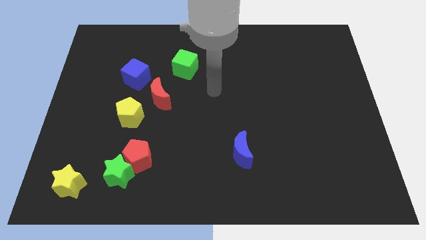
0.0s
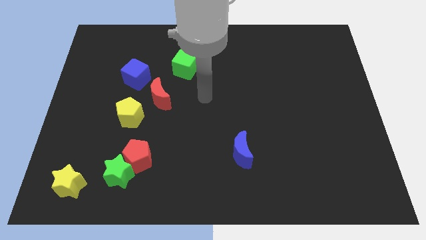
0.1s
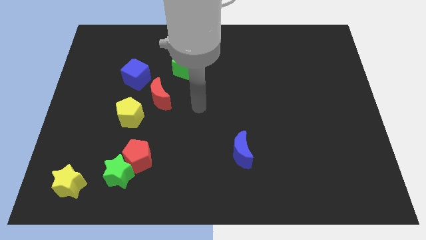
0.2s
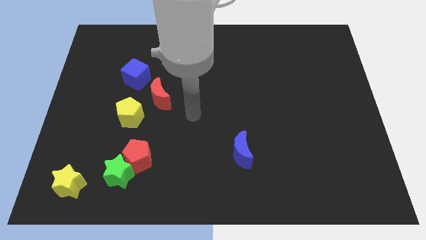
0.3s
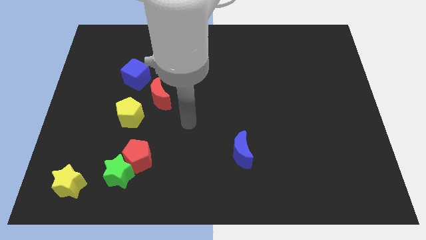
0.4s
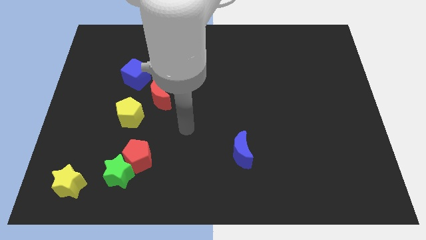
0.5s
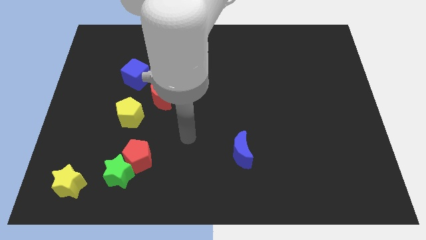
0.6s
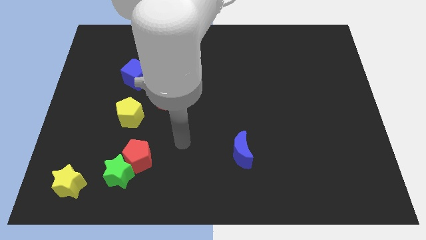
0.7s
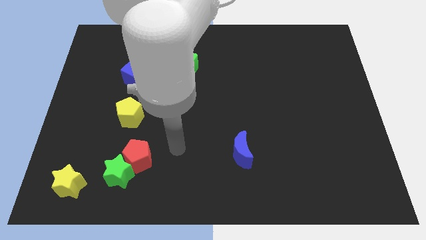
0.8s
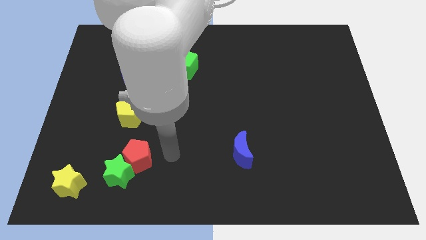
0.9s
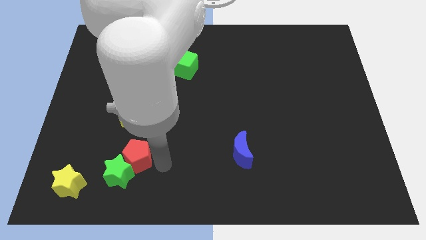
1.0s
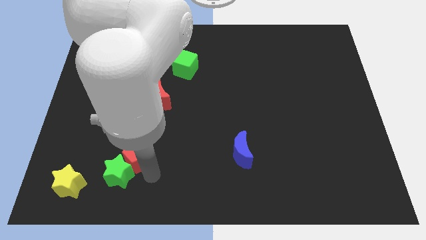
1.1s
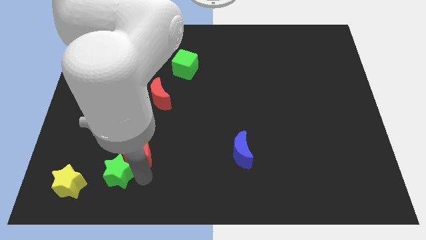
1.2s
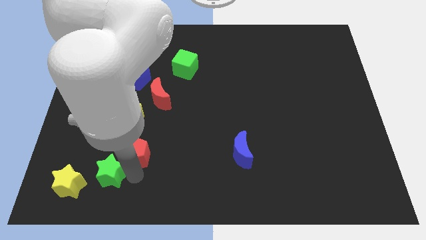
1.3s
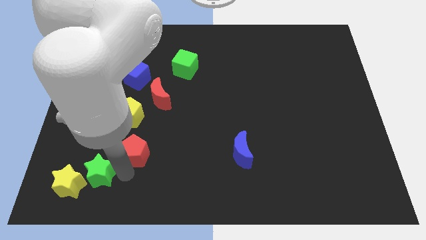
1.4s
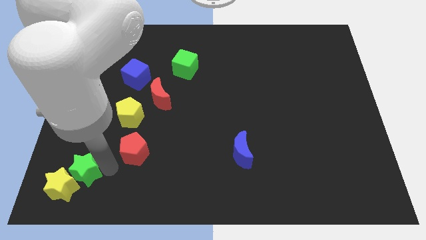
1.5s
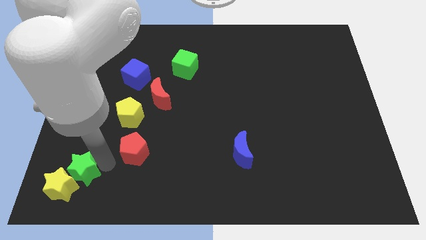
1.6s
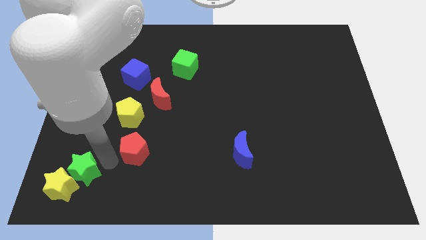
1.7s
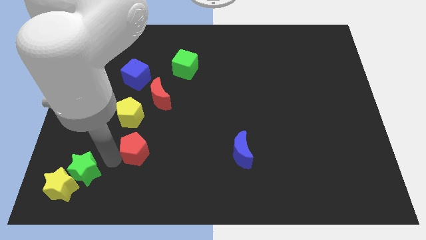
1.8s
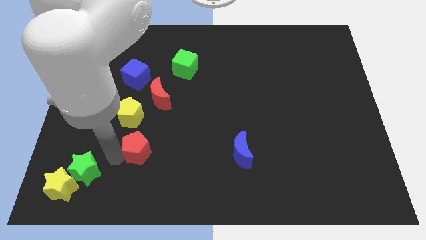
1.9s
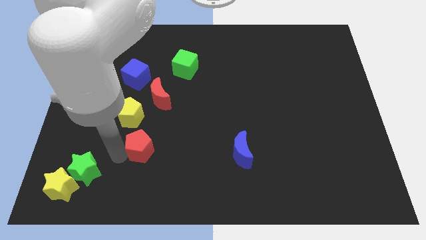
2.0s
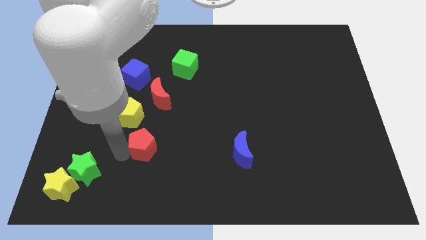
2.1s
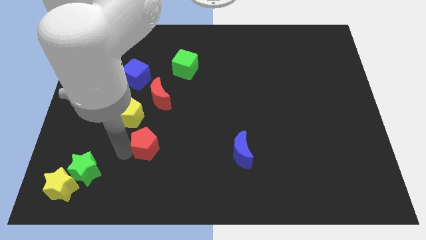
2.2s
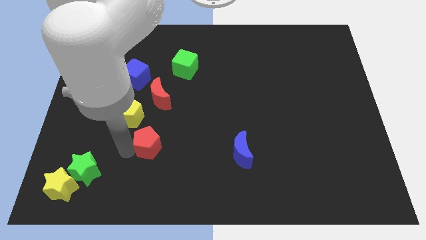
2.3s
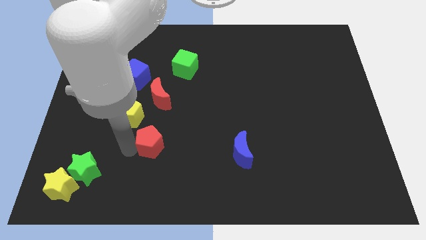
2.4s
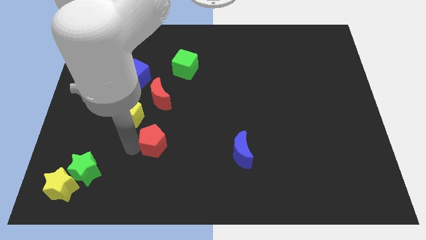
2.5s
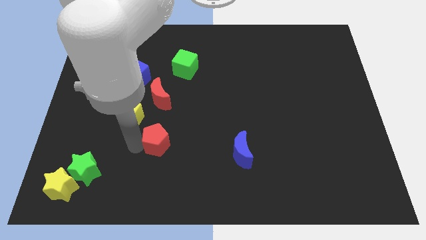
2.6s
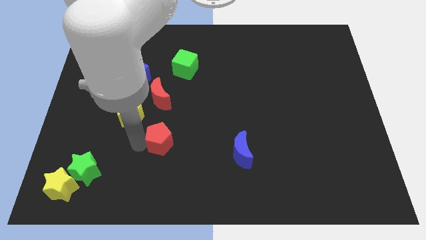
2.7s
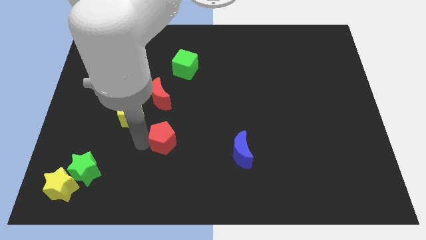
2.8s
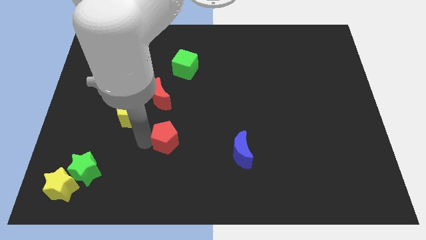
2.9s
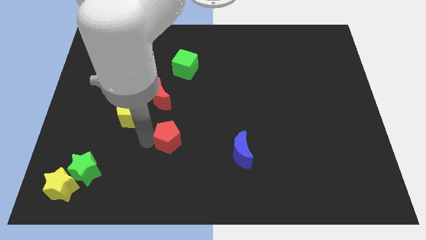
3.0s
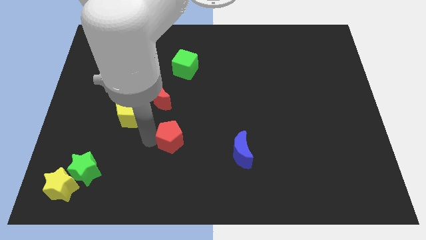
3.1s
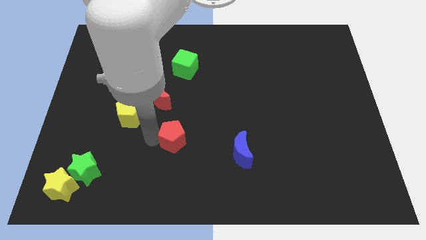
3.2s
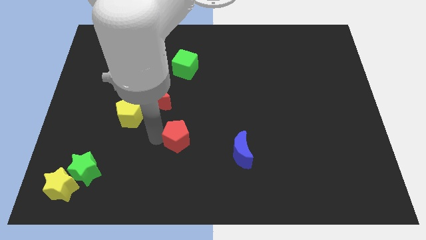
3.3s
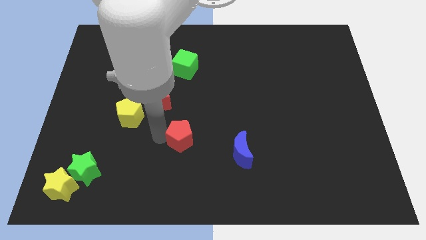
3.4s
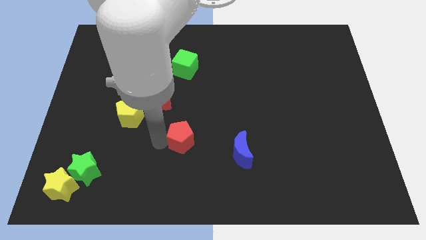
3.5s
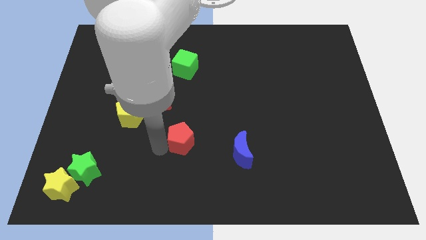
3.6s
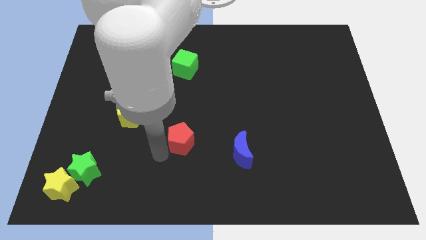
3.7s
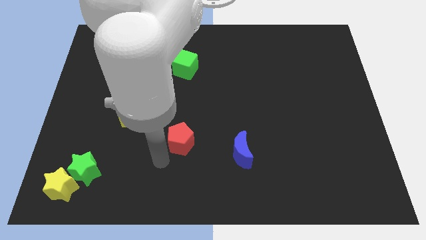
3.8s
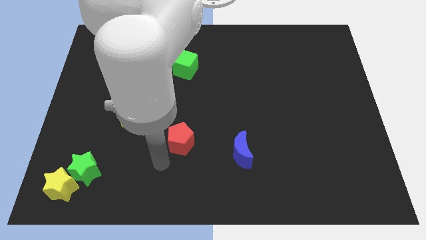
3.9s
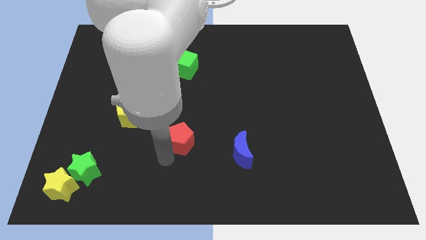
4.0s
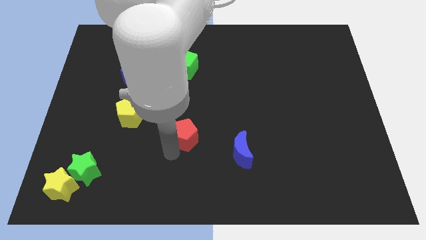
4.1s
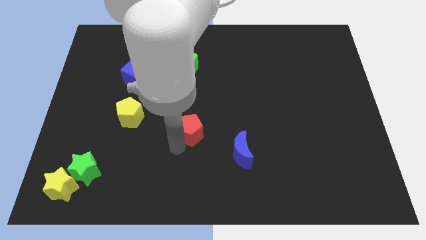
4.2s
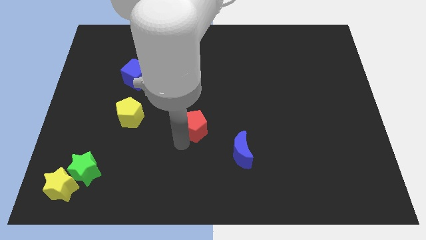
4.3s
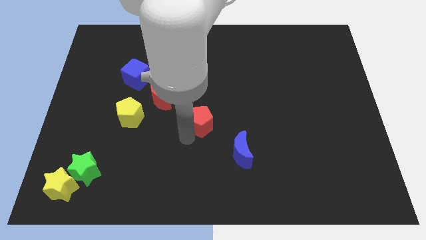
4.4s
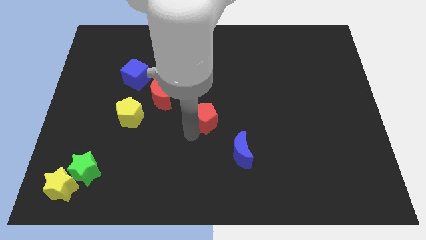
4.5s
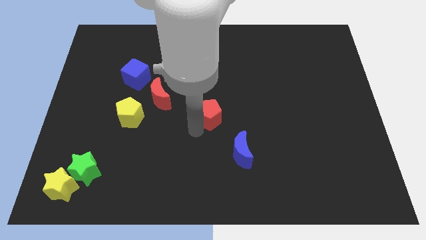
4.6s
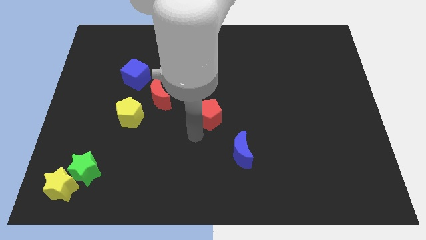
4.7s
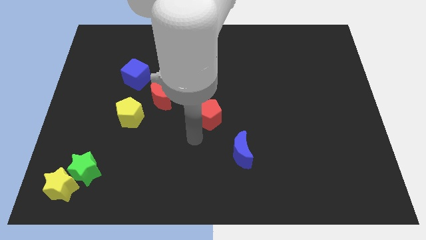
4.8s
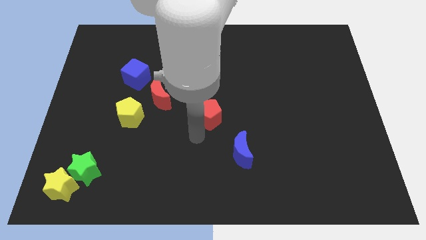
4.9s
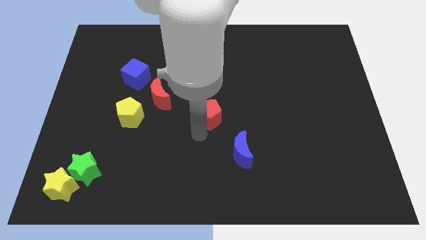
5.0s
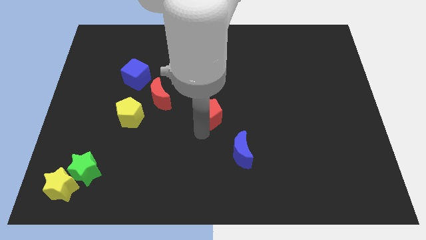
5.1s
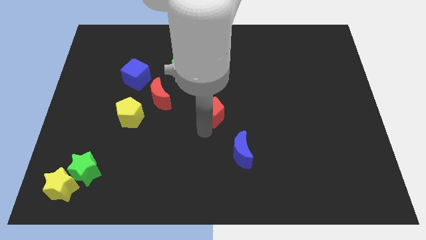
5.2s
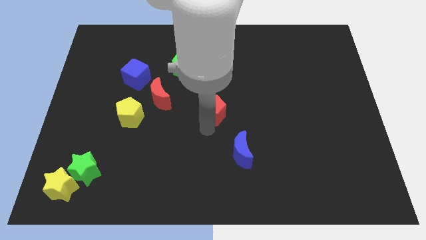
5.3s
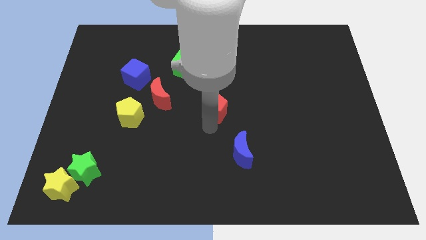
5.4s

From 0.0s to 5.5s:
push the red pentagon diagonally up and right

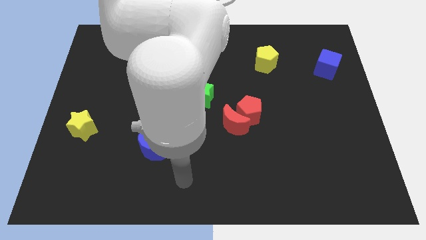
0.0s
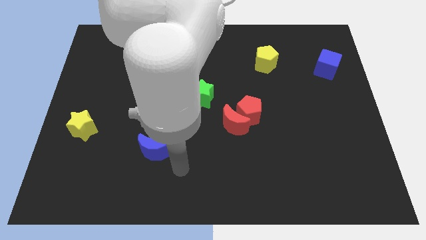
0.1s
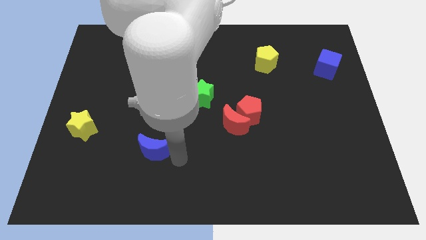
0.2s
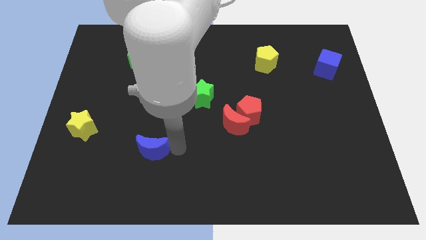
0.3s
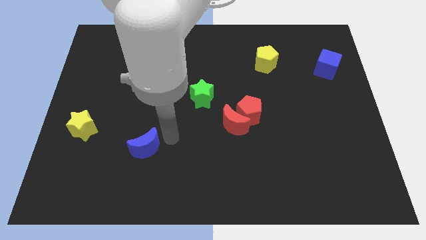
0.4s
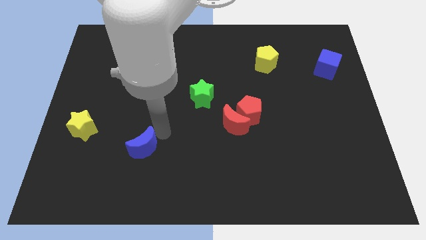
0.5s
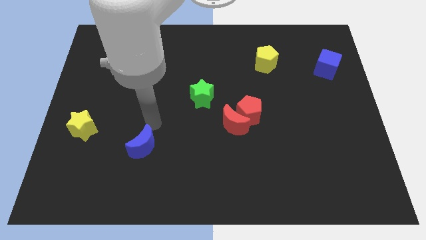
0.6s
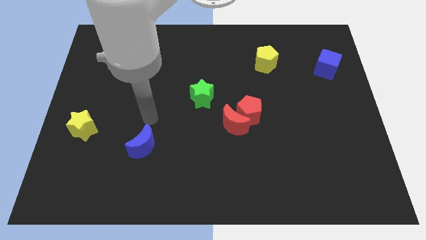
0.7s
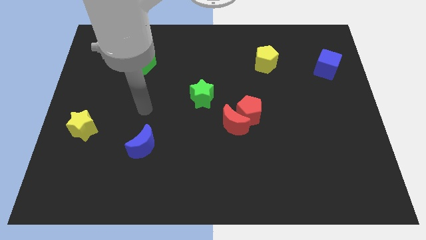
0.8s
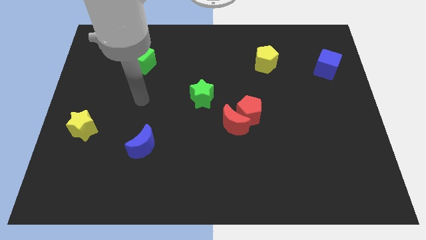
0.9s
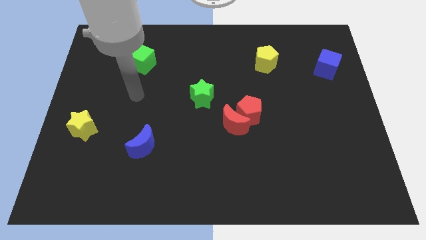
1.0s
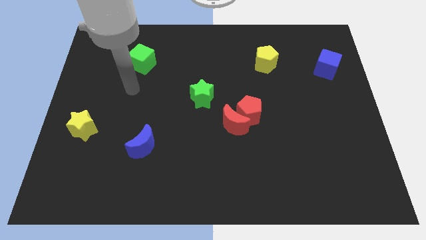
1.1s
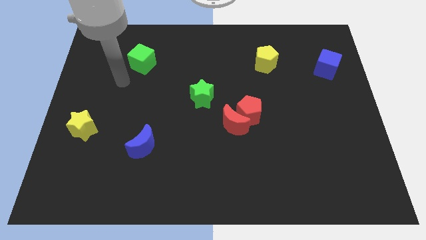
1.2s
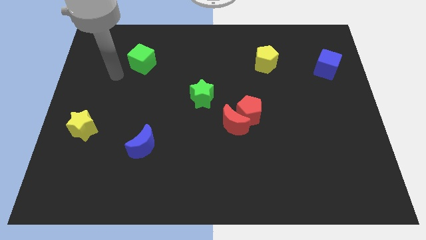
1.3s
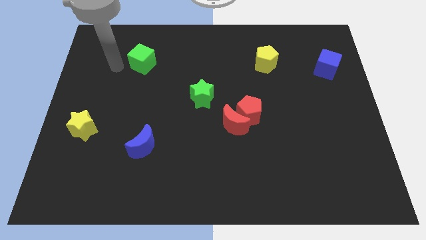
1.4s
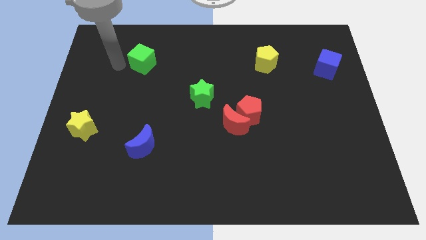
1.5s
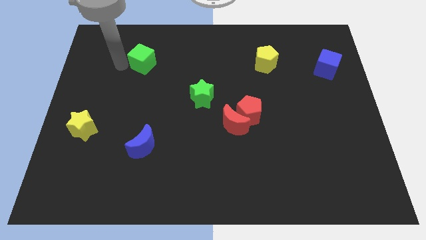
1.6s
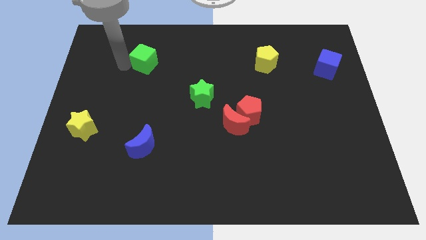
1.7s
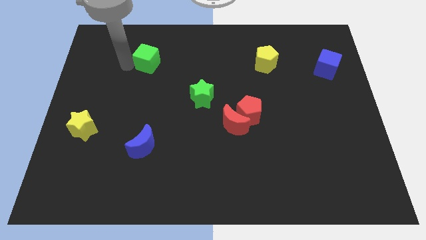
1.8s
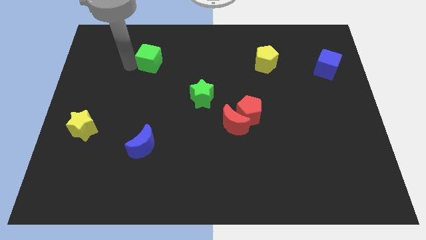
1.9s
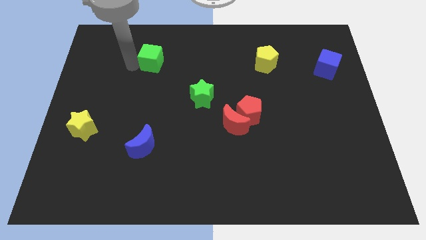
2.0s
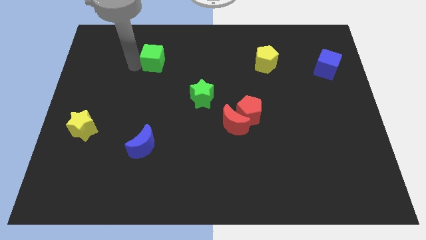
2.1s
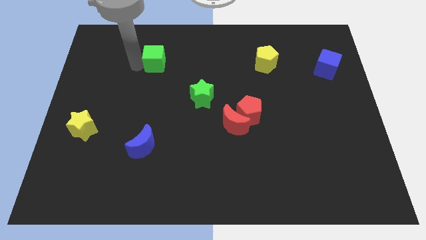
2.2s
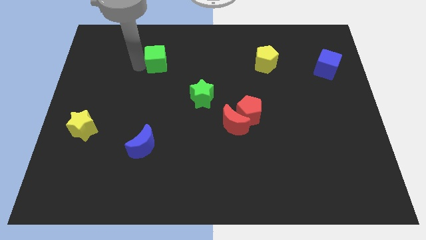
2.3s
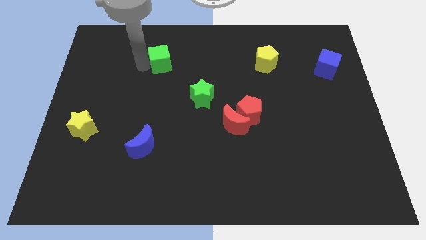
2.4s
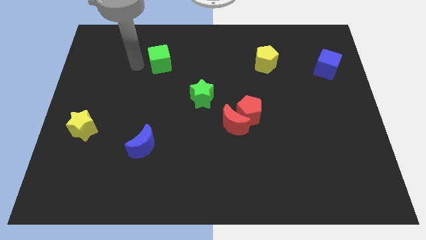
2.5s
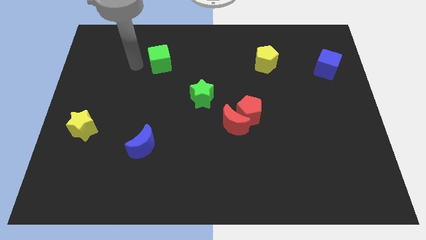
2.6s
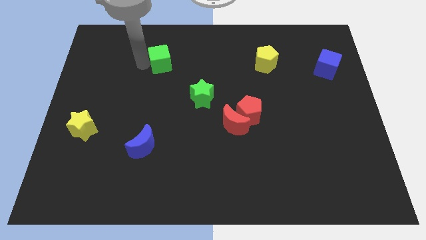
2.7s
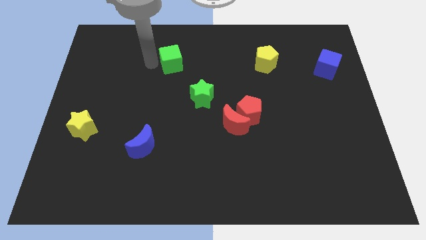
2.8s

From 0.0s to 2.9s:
slide the green cube right a little bit

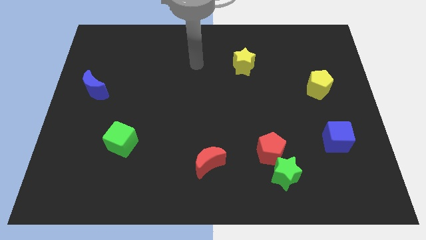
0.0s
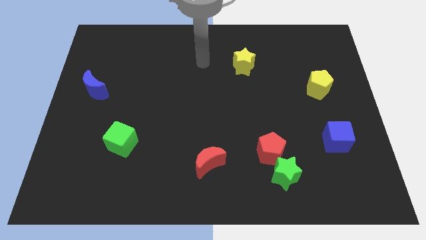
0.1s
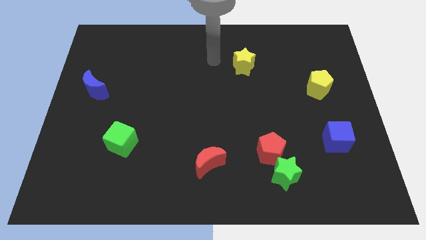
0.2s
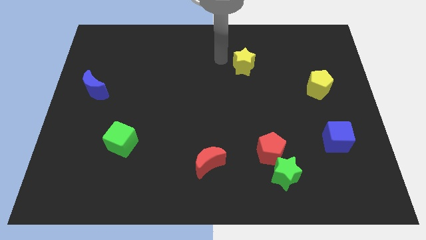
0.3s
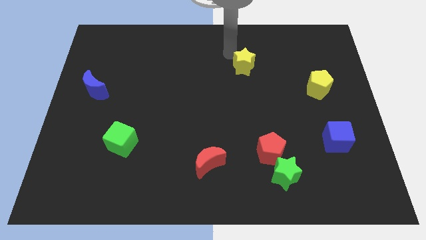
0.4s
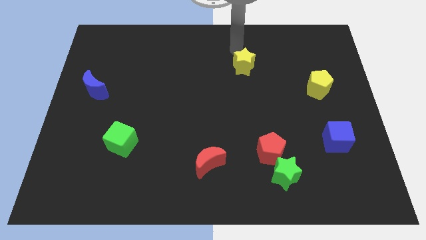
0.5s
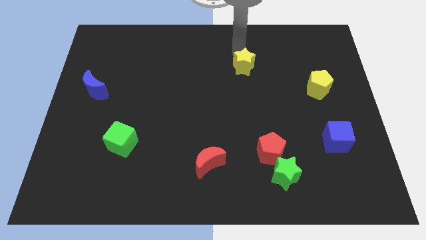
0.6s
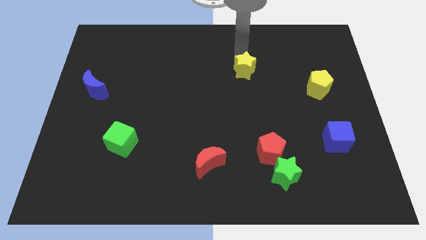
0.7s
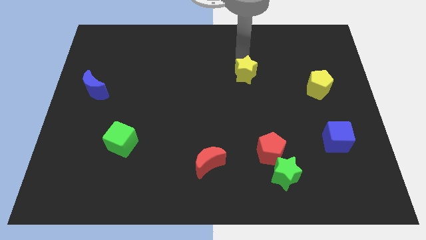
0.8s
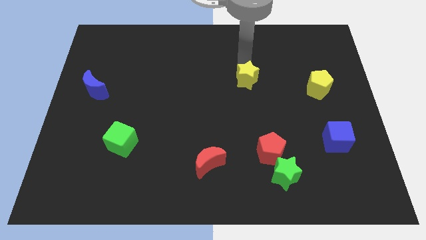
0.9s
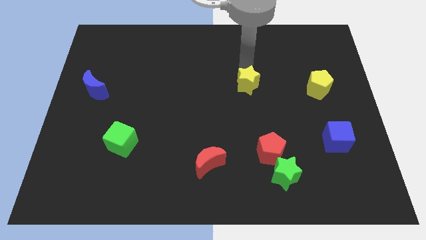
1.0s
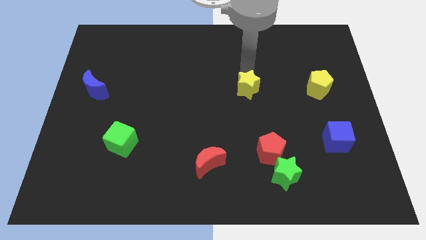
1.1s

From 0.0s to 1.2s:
slightly push the yellow star down
